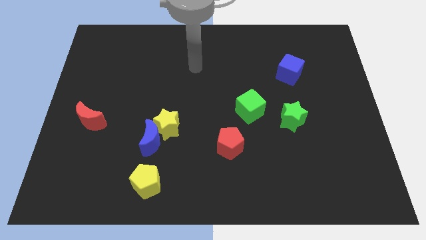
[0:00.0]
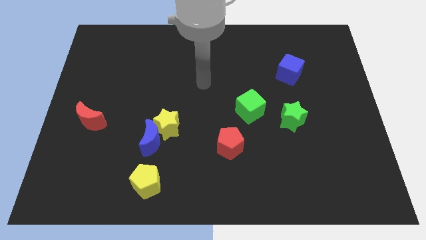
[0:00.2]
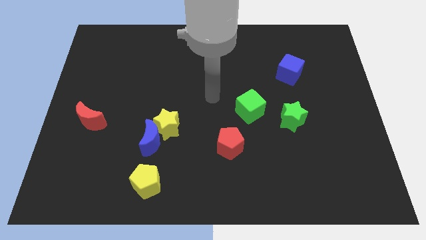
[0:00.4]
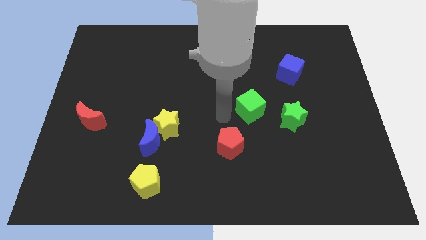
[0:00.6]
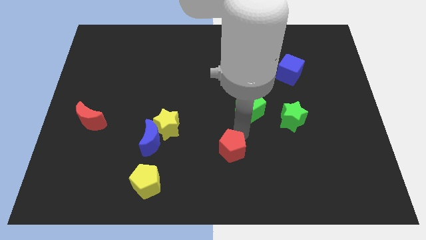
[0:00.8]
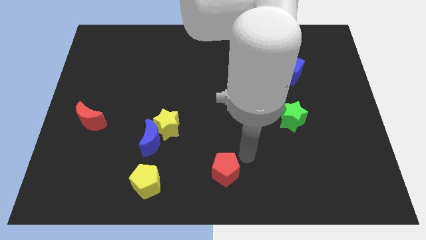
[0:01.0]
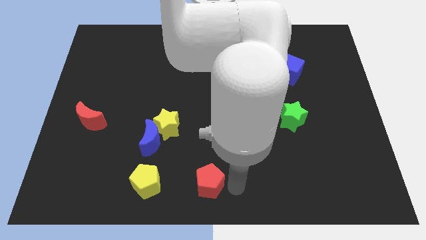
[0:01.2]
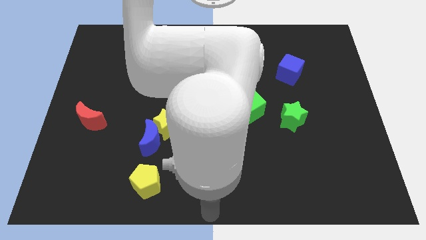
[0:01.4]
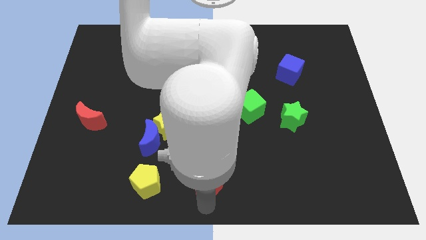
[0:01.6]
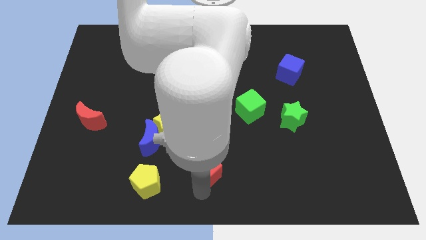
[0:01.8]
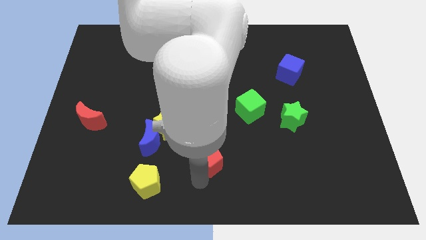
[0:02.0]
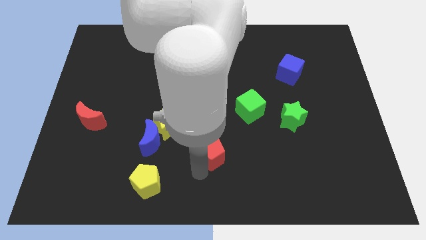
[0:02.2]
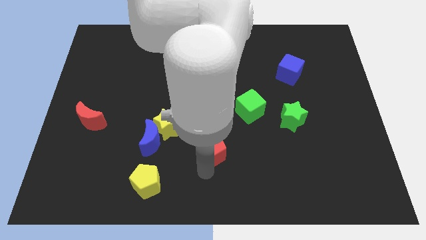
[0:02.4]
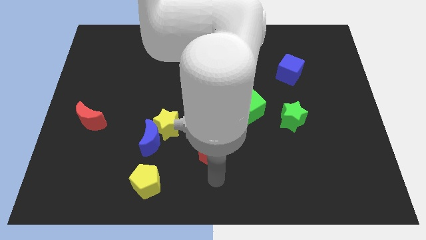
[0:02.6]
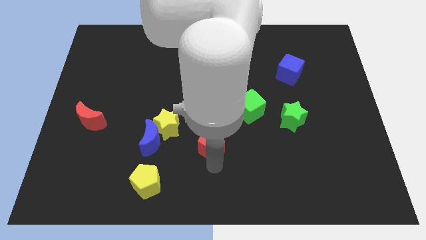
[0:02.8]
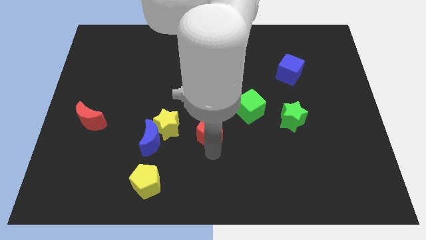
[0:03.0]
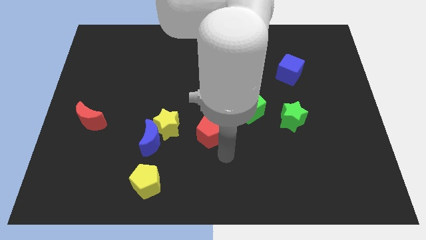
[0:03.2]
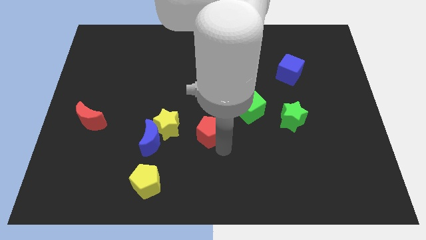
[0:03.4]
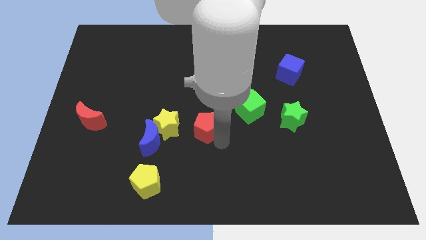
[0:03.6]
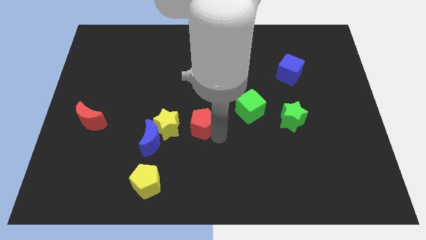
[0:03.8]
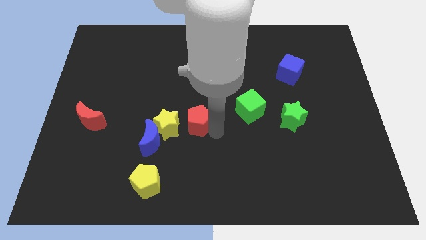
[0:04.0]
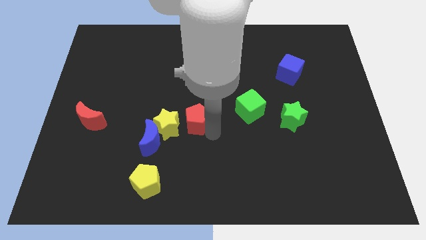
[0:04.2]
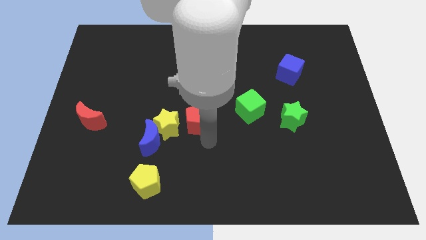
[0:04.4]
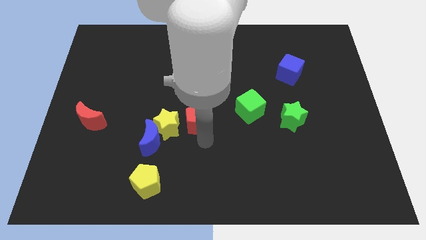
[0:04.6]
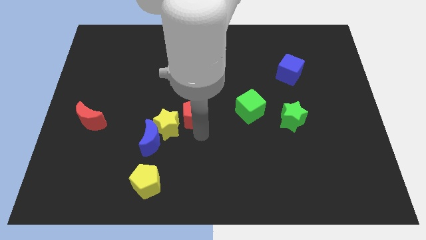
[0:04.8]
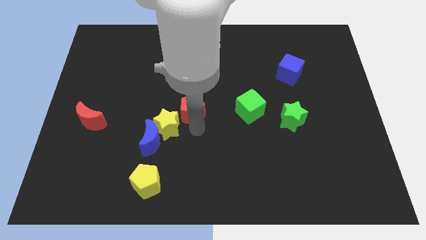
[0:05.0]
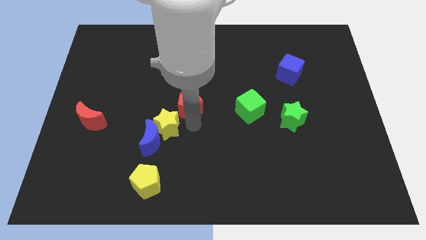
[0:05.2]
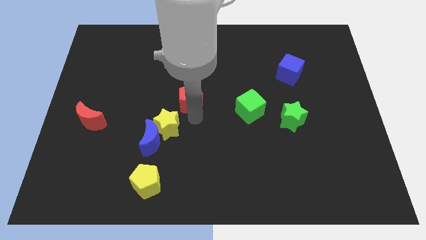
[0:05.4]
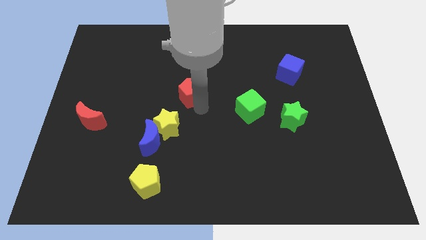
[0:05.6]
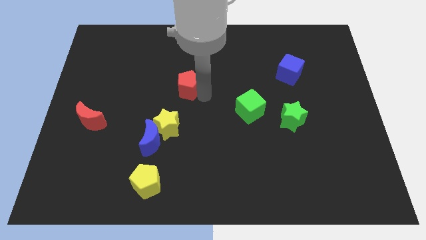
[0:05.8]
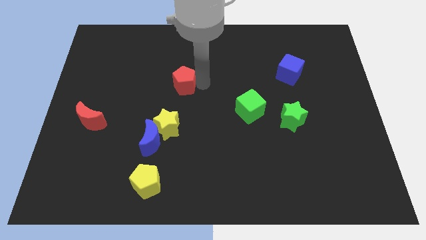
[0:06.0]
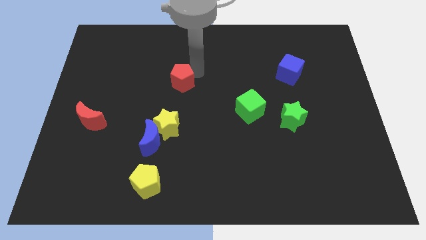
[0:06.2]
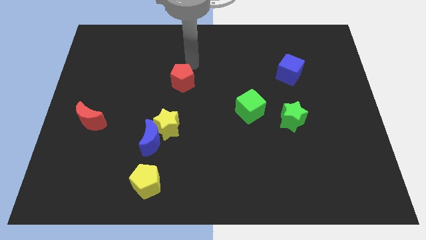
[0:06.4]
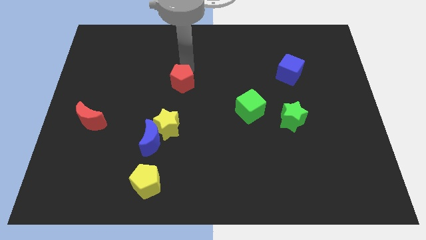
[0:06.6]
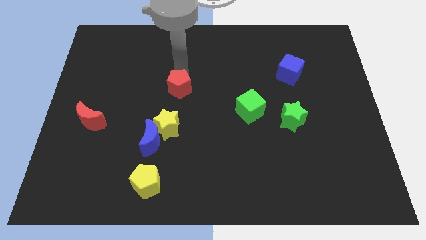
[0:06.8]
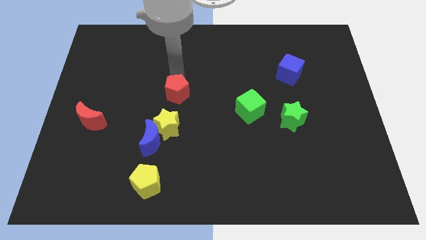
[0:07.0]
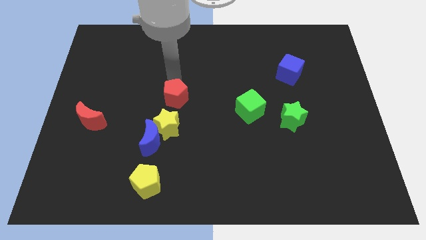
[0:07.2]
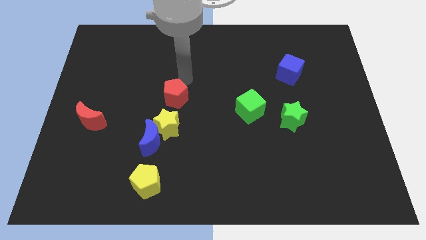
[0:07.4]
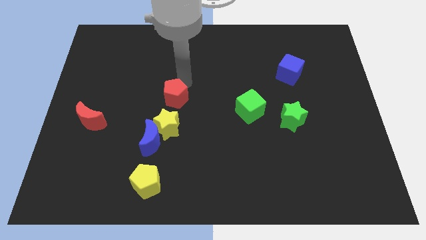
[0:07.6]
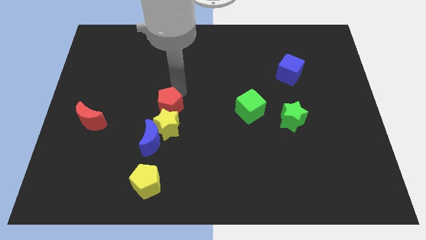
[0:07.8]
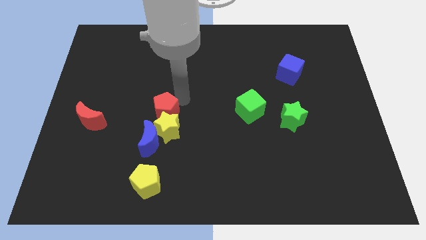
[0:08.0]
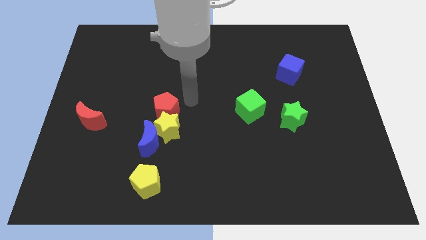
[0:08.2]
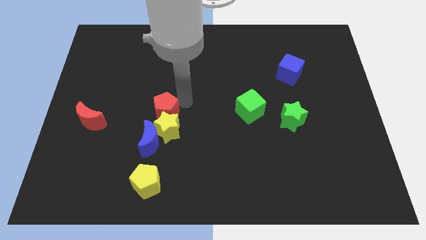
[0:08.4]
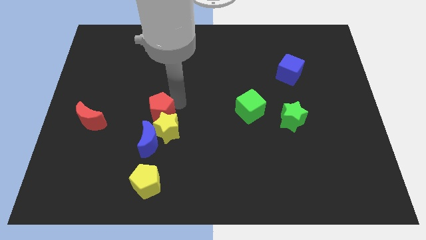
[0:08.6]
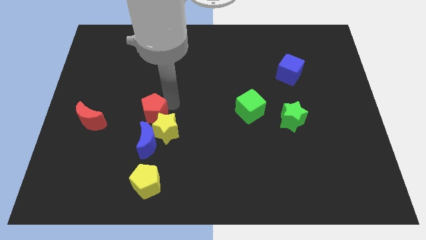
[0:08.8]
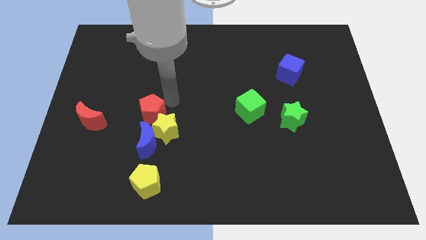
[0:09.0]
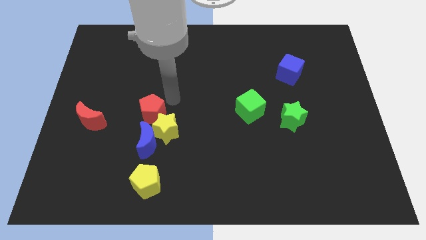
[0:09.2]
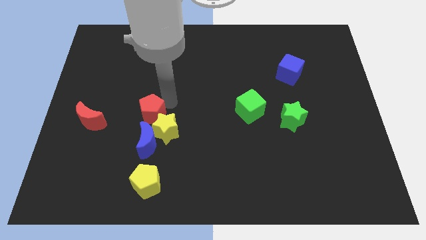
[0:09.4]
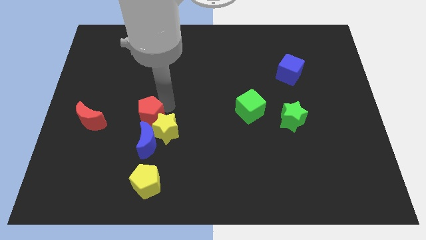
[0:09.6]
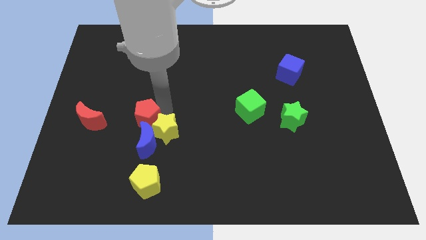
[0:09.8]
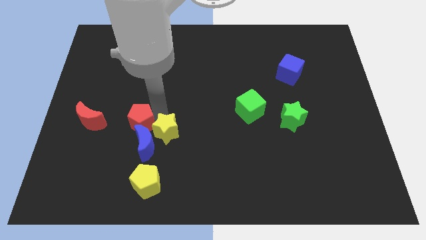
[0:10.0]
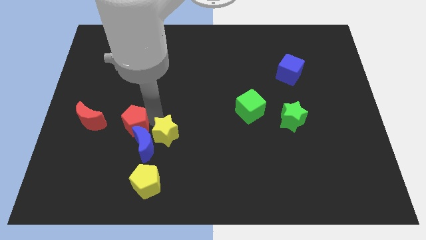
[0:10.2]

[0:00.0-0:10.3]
push the red pentagon left

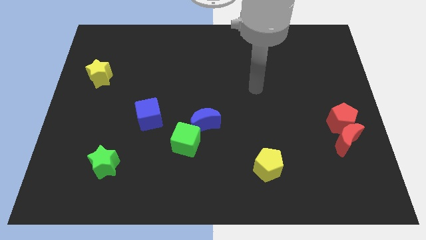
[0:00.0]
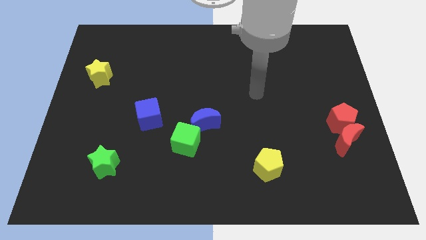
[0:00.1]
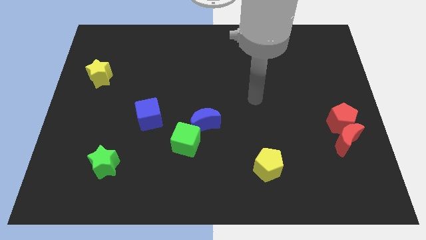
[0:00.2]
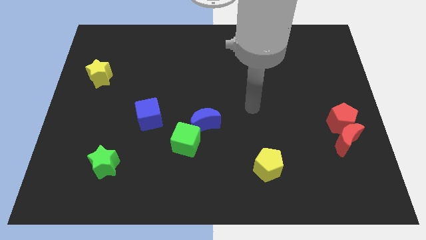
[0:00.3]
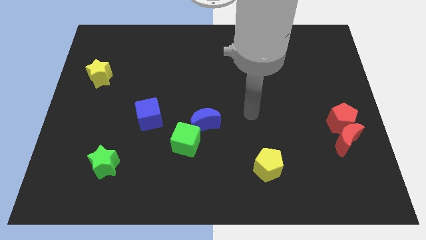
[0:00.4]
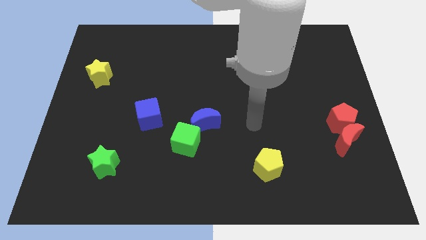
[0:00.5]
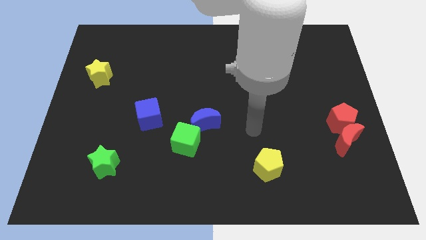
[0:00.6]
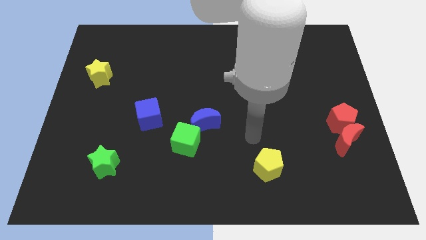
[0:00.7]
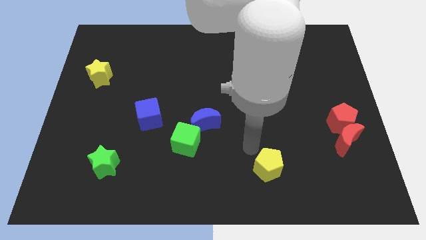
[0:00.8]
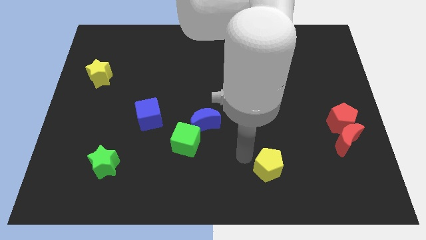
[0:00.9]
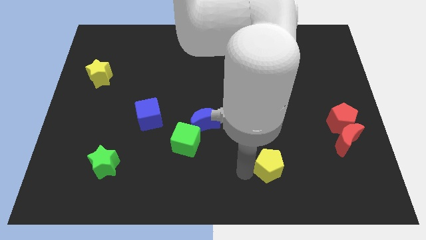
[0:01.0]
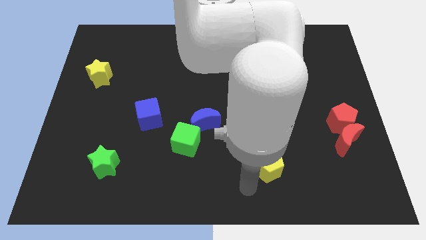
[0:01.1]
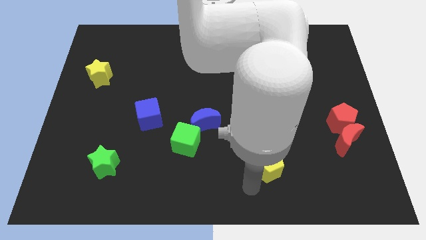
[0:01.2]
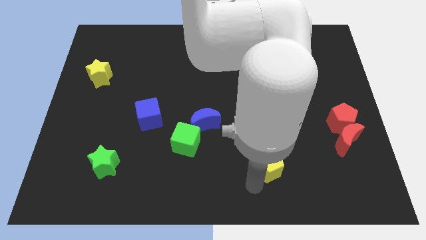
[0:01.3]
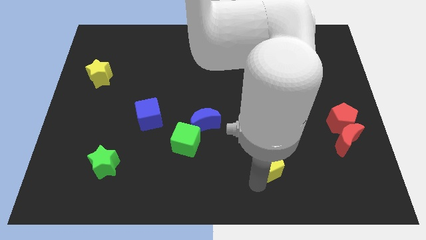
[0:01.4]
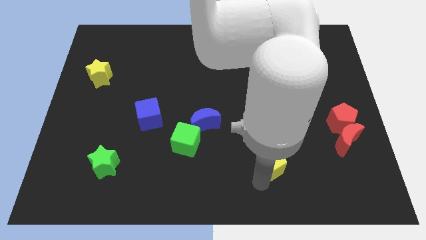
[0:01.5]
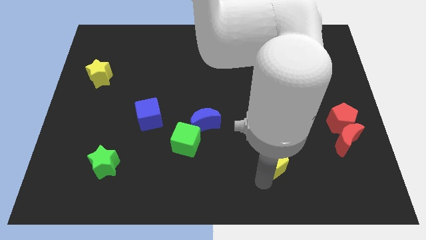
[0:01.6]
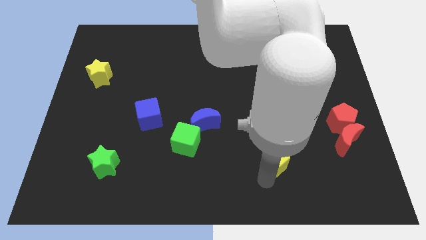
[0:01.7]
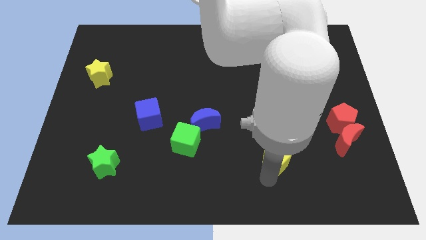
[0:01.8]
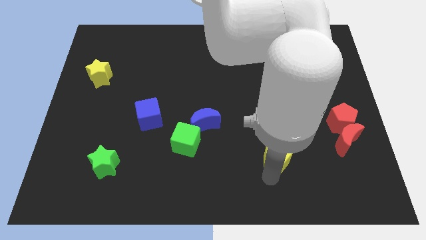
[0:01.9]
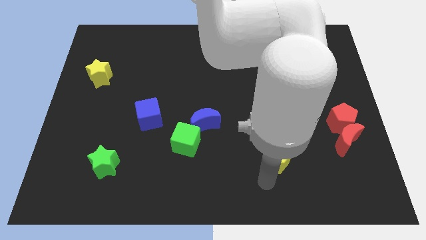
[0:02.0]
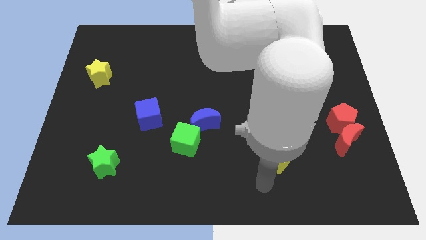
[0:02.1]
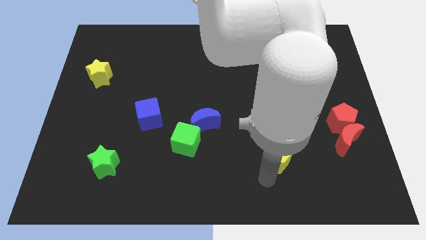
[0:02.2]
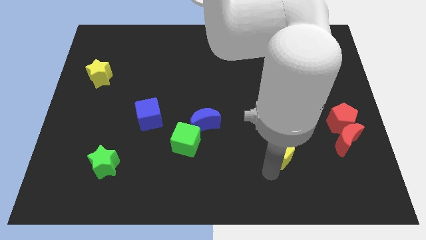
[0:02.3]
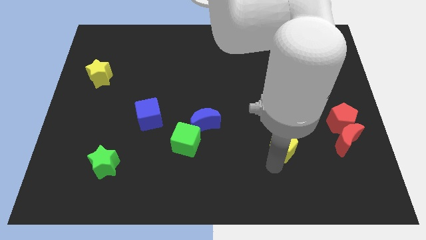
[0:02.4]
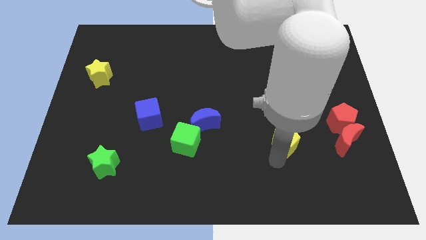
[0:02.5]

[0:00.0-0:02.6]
push the yellow pentagon upwards and right a little bit
